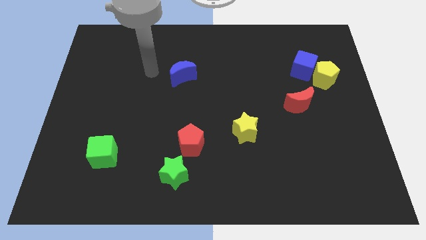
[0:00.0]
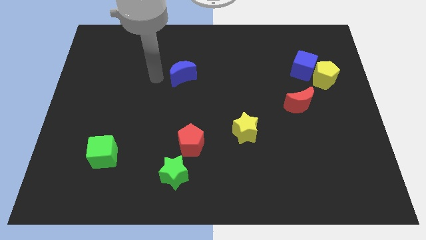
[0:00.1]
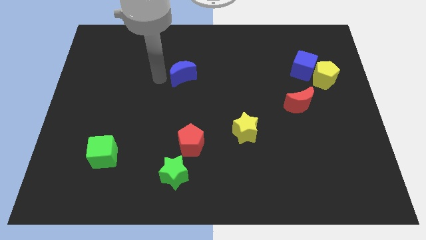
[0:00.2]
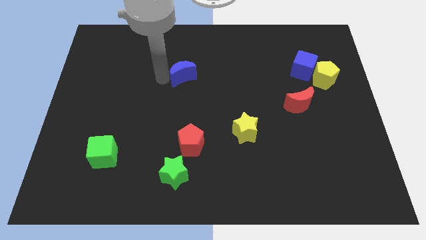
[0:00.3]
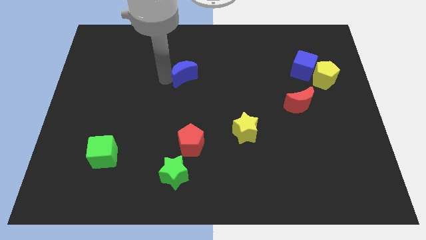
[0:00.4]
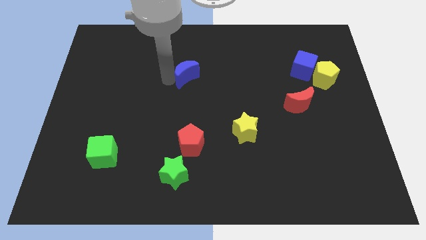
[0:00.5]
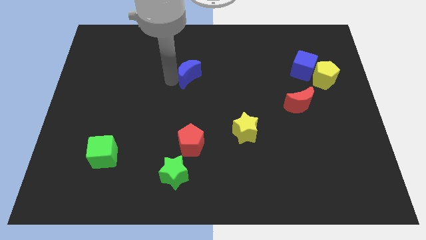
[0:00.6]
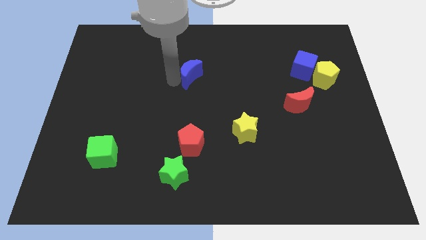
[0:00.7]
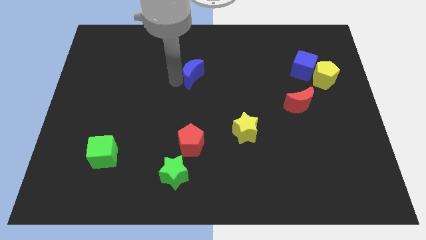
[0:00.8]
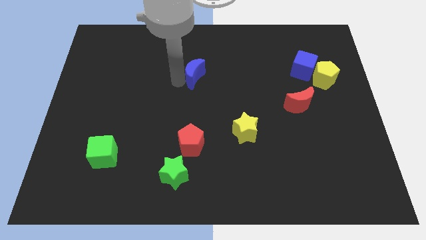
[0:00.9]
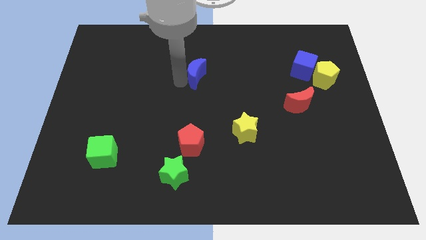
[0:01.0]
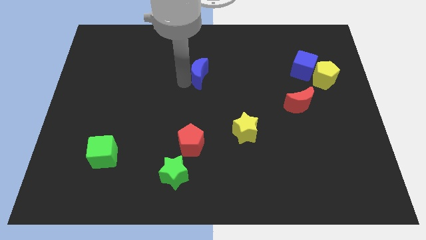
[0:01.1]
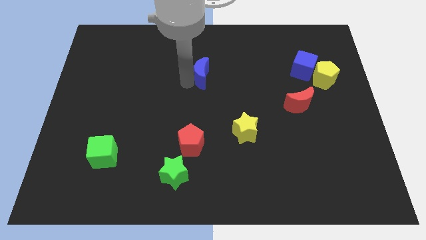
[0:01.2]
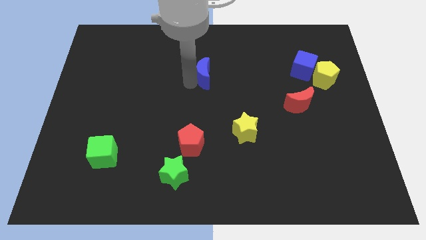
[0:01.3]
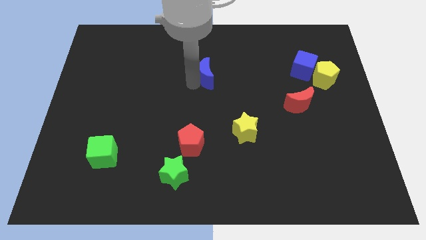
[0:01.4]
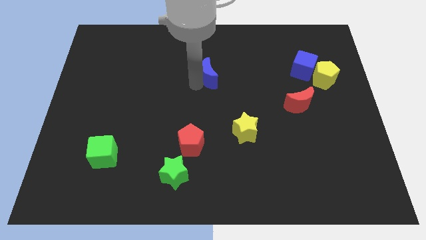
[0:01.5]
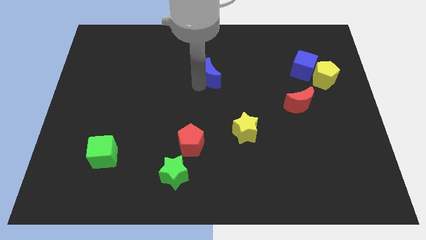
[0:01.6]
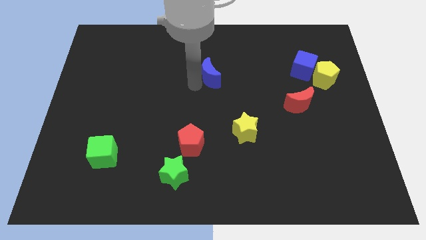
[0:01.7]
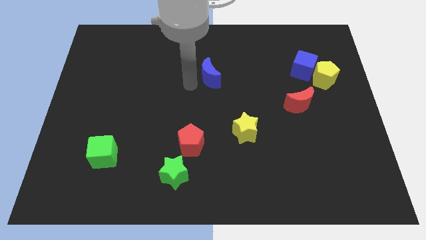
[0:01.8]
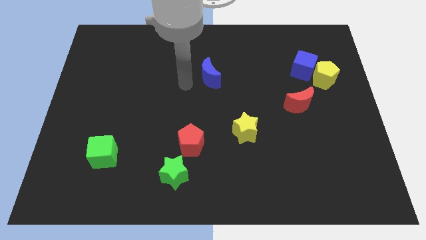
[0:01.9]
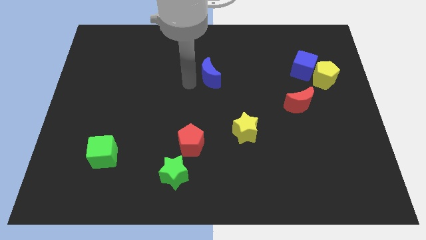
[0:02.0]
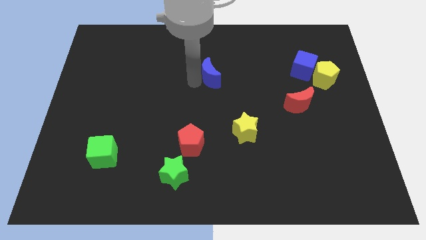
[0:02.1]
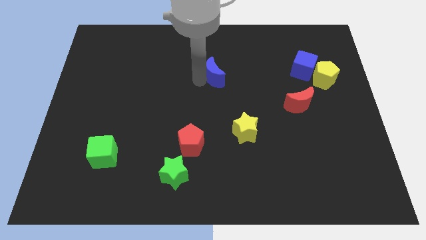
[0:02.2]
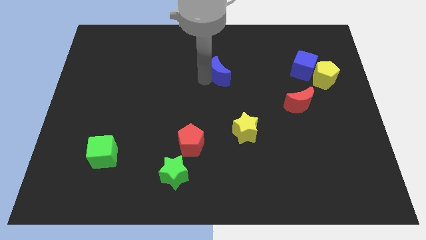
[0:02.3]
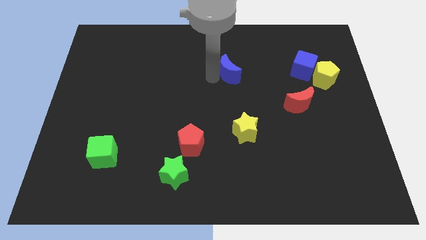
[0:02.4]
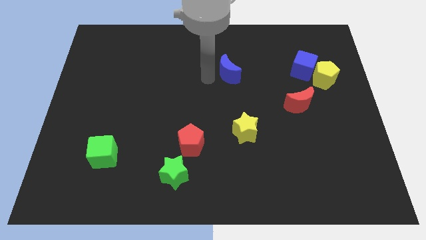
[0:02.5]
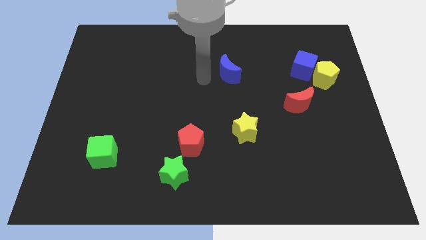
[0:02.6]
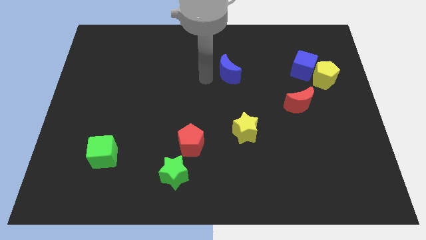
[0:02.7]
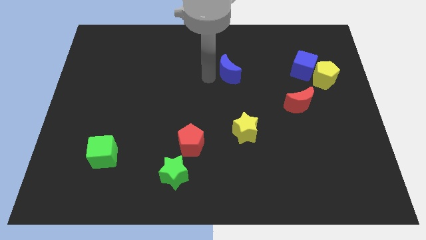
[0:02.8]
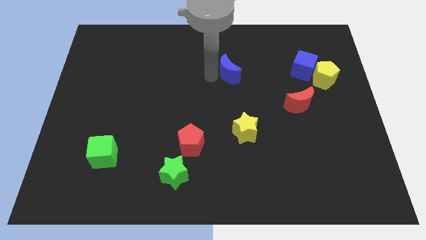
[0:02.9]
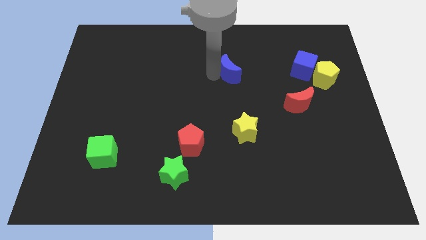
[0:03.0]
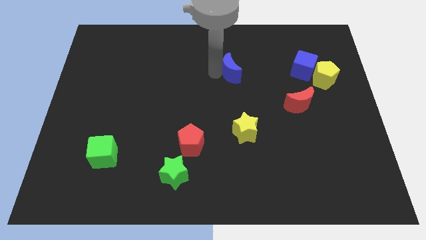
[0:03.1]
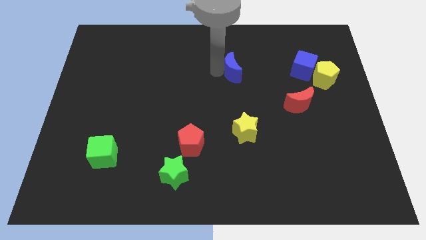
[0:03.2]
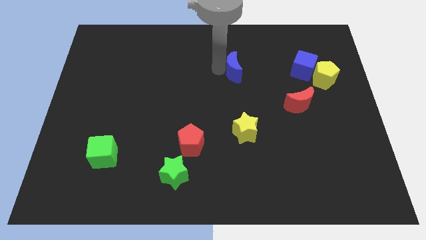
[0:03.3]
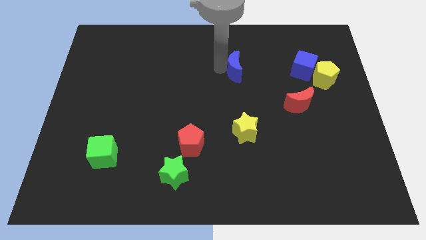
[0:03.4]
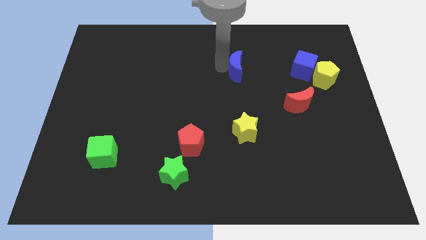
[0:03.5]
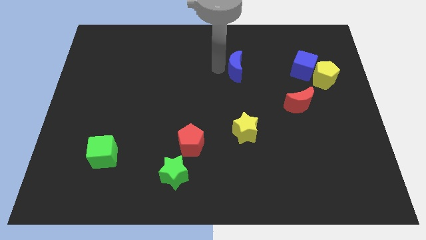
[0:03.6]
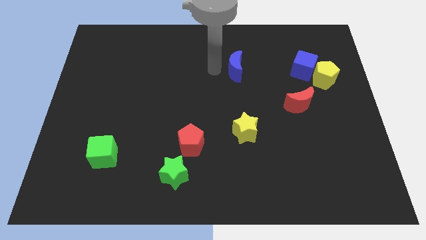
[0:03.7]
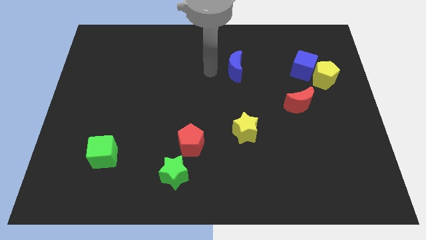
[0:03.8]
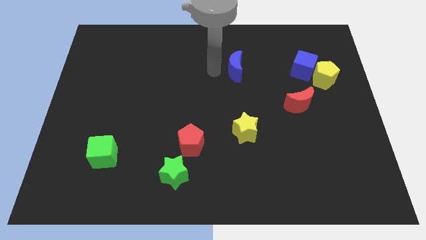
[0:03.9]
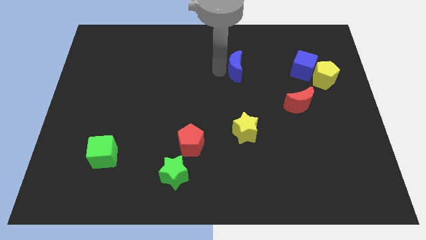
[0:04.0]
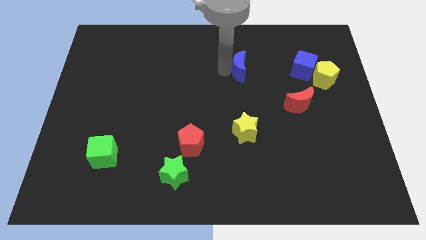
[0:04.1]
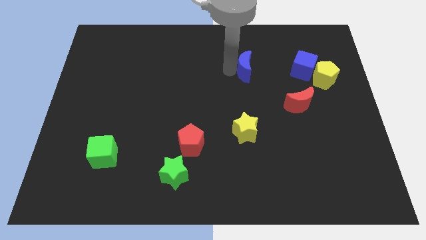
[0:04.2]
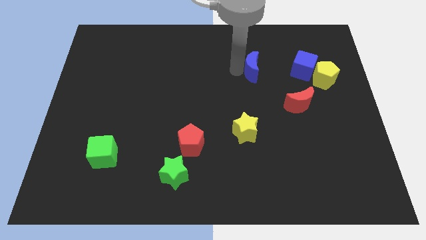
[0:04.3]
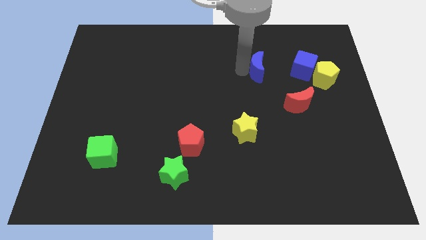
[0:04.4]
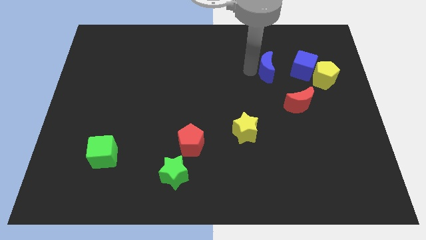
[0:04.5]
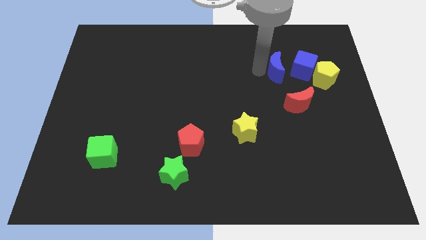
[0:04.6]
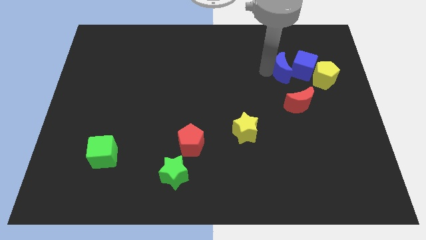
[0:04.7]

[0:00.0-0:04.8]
slide the blue moon close to the blue cube

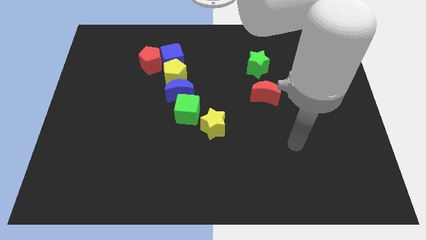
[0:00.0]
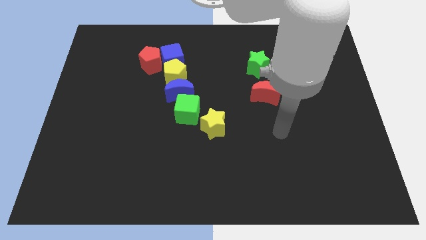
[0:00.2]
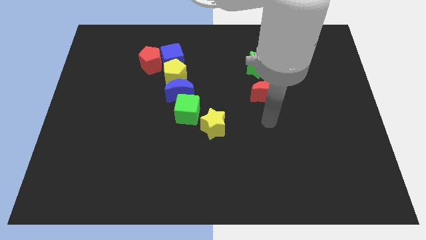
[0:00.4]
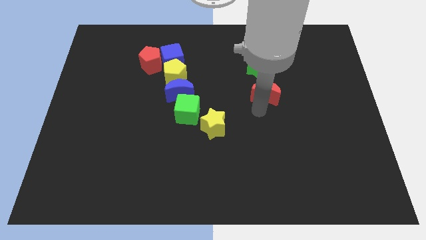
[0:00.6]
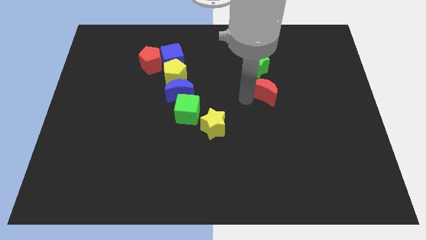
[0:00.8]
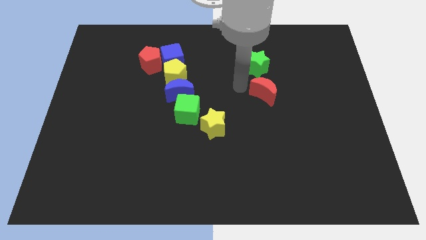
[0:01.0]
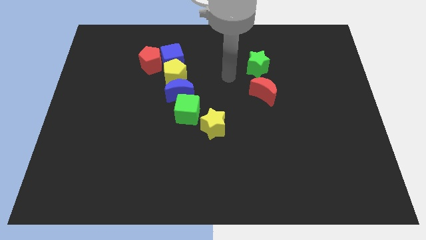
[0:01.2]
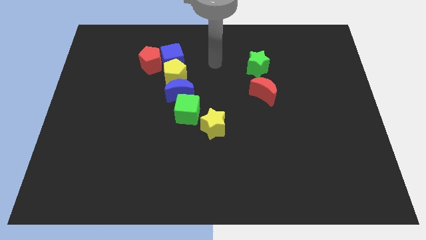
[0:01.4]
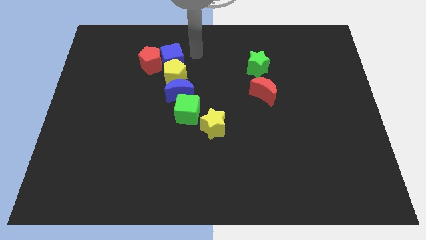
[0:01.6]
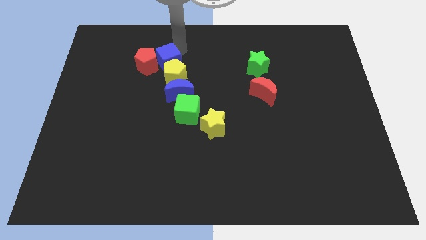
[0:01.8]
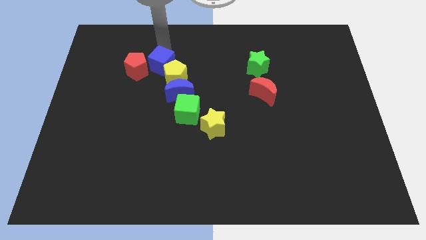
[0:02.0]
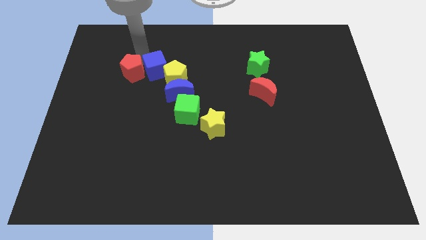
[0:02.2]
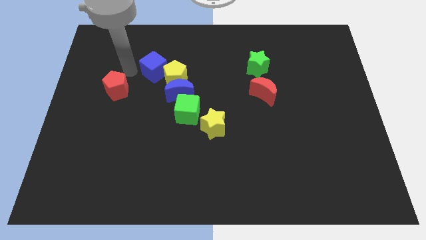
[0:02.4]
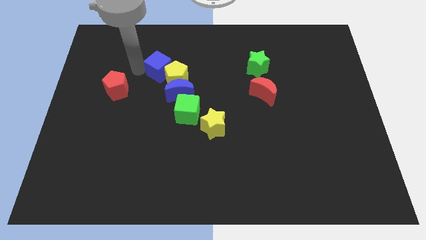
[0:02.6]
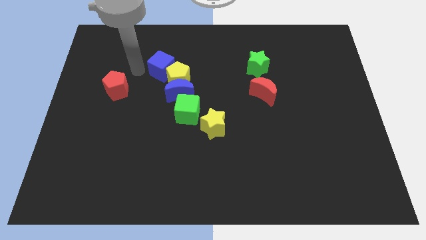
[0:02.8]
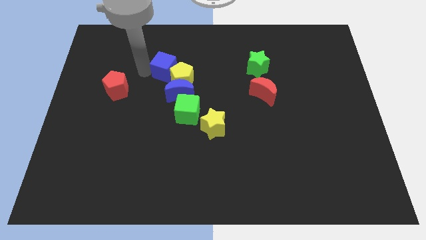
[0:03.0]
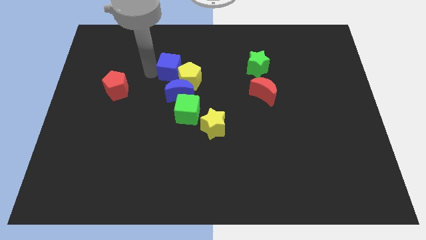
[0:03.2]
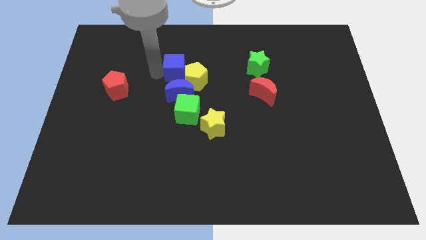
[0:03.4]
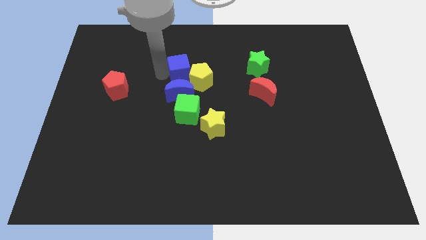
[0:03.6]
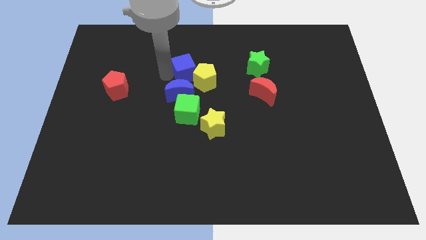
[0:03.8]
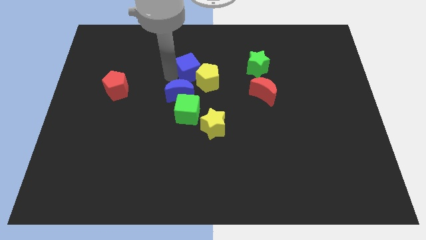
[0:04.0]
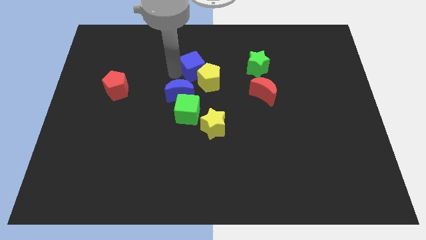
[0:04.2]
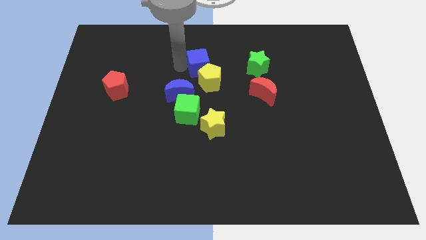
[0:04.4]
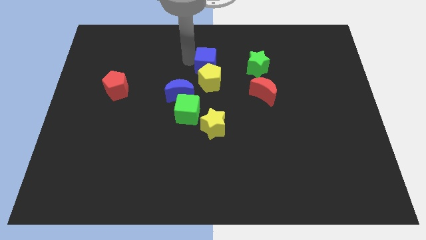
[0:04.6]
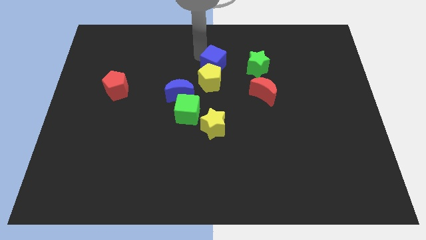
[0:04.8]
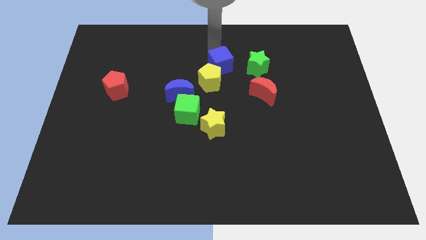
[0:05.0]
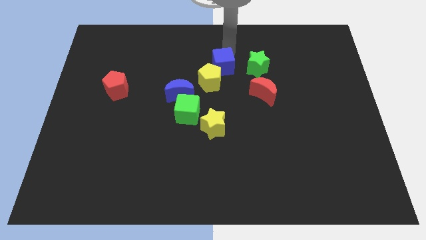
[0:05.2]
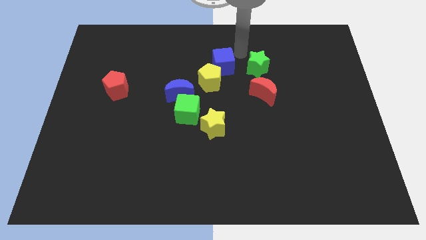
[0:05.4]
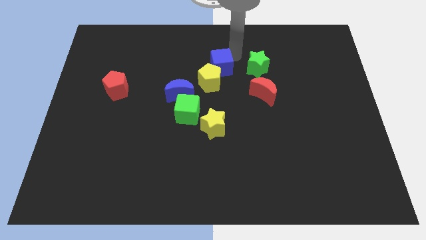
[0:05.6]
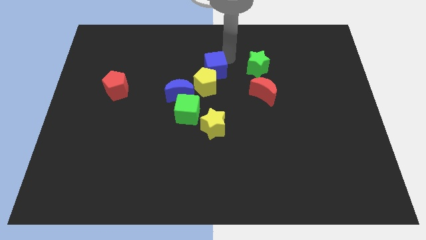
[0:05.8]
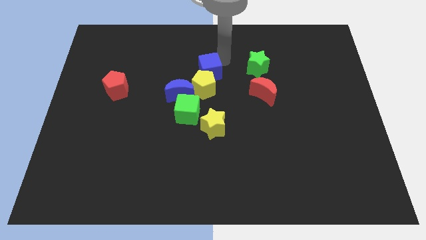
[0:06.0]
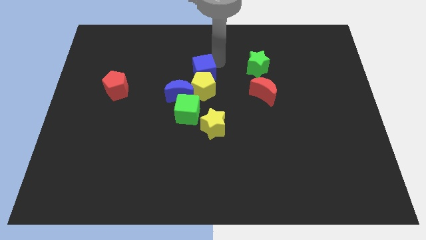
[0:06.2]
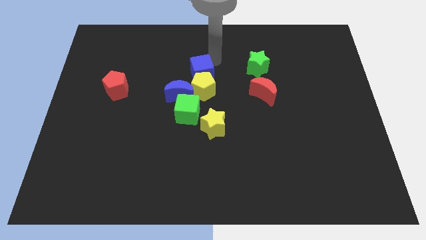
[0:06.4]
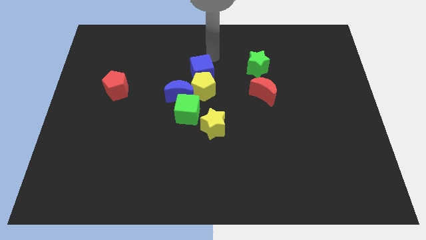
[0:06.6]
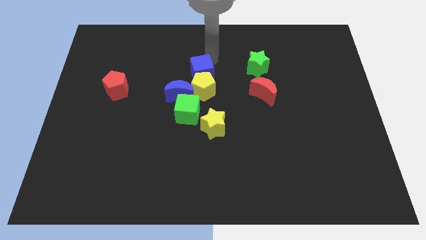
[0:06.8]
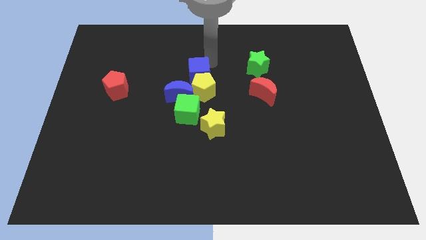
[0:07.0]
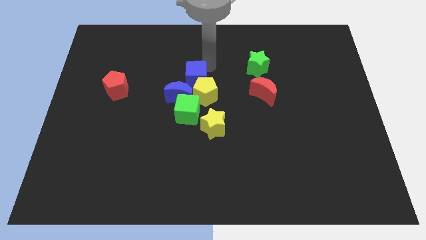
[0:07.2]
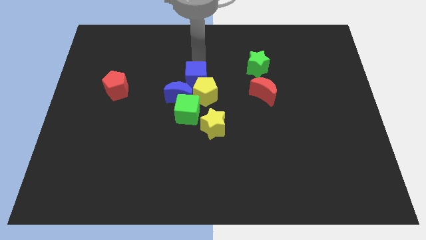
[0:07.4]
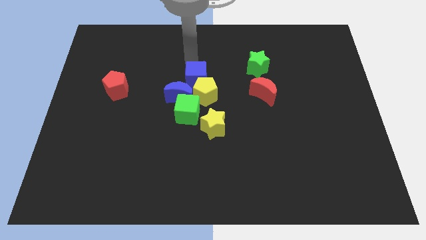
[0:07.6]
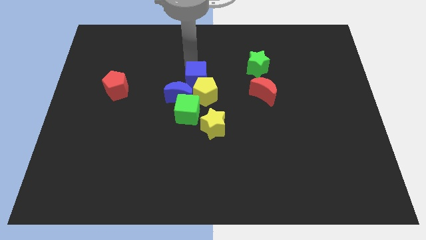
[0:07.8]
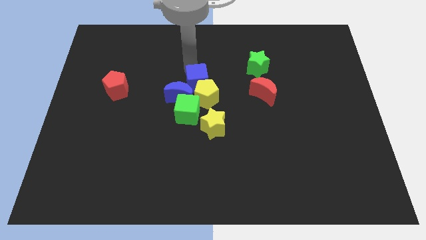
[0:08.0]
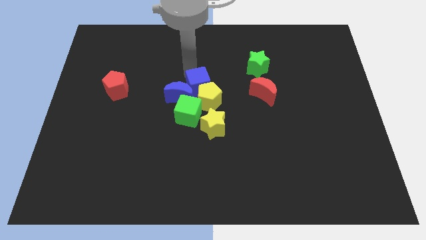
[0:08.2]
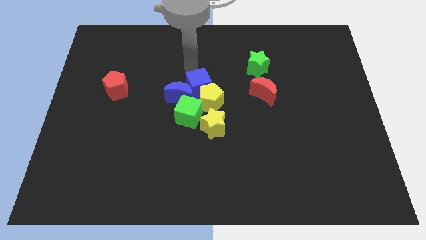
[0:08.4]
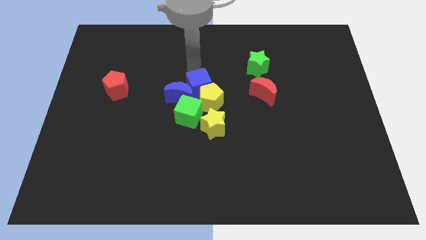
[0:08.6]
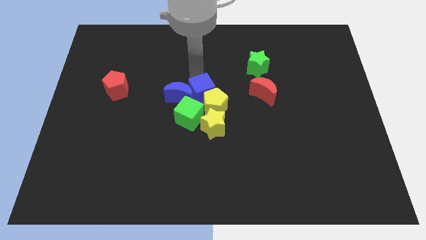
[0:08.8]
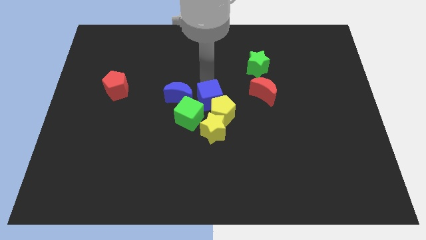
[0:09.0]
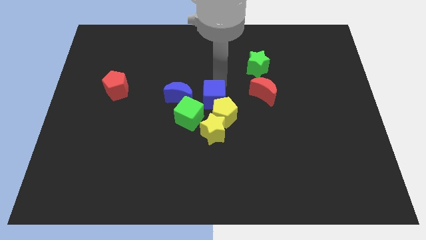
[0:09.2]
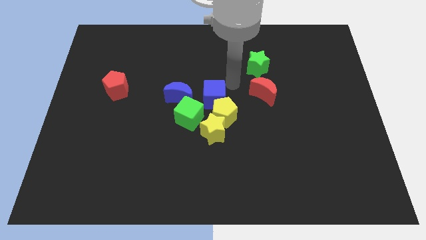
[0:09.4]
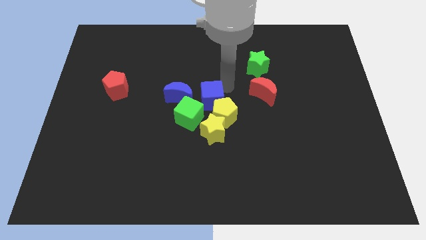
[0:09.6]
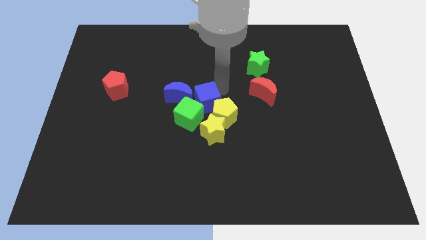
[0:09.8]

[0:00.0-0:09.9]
slide the blue cube close to the green cube
